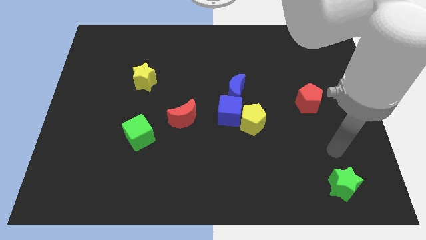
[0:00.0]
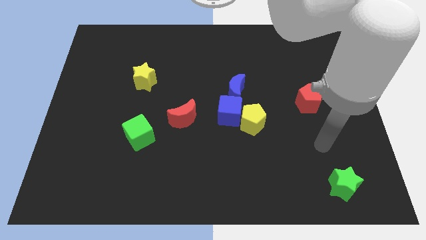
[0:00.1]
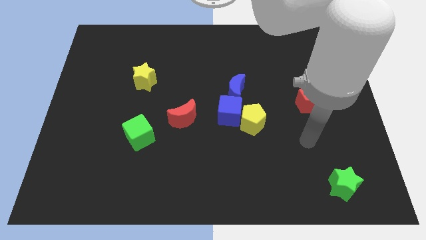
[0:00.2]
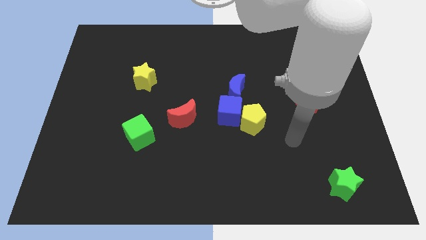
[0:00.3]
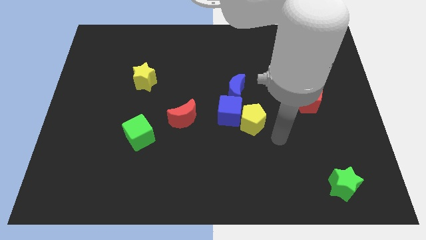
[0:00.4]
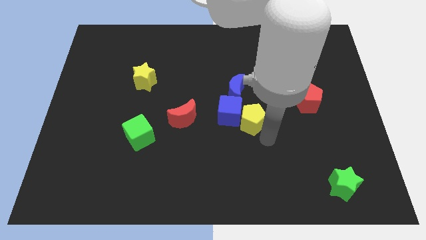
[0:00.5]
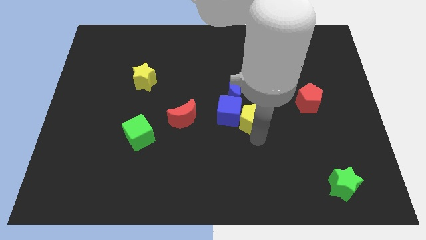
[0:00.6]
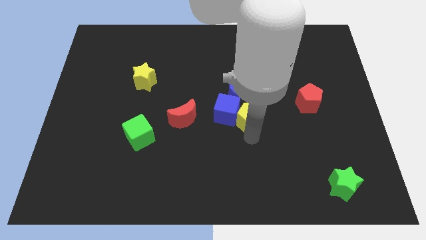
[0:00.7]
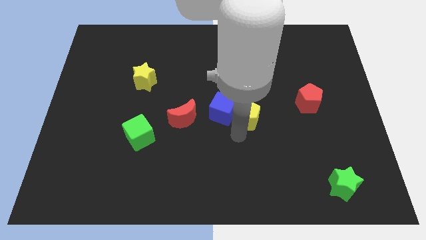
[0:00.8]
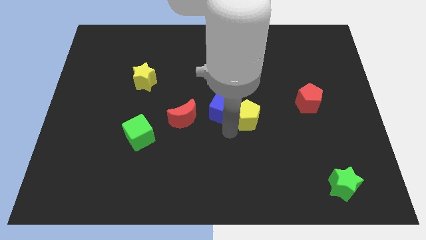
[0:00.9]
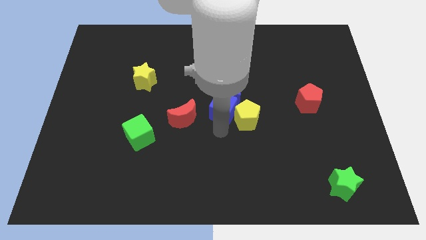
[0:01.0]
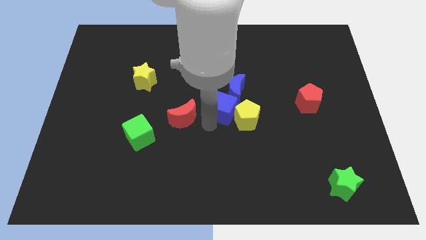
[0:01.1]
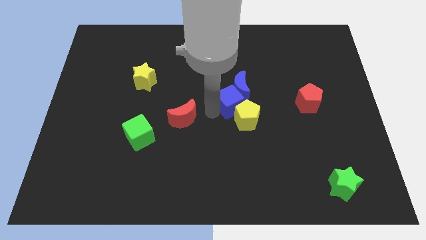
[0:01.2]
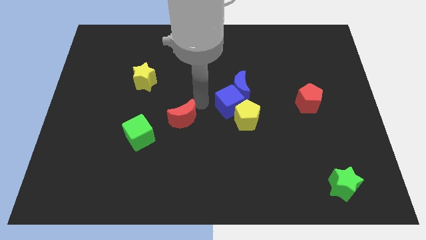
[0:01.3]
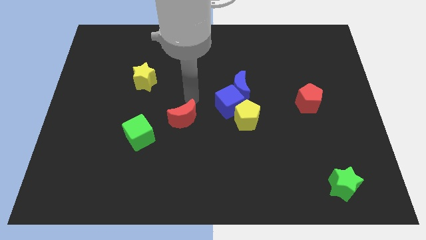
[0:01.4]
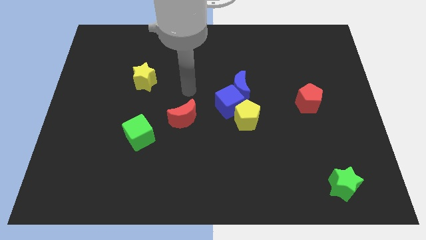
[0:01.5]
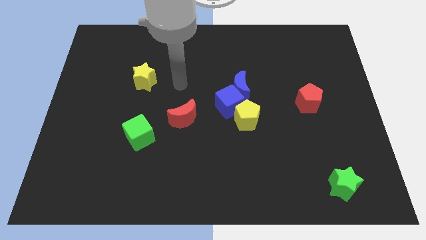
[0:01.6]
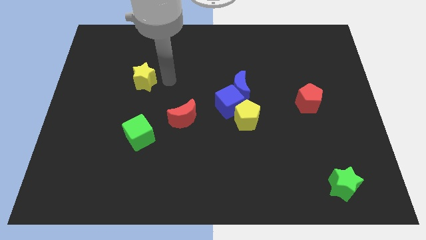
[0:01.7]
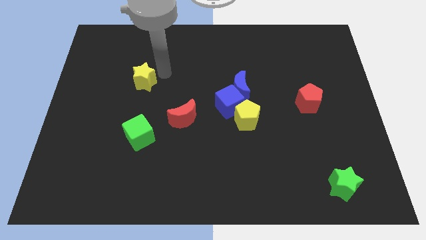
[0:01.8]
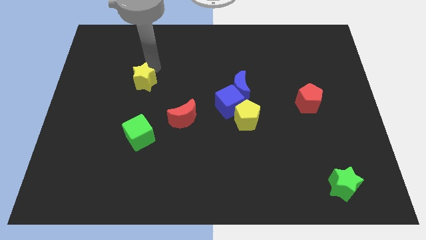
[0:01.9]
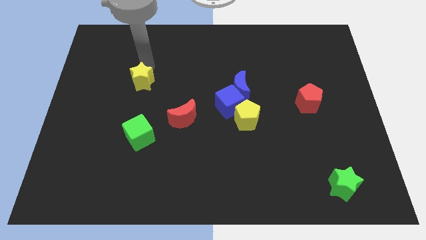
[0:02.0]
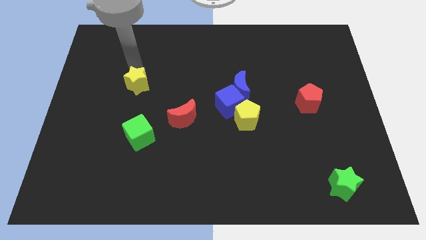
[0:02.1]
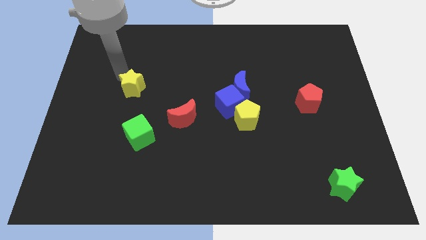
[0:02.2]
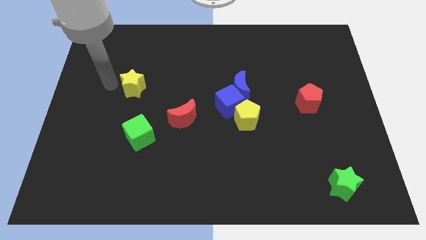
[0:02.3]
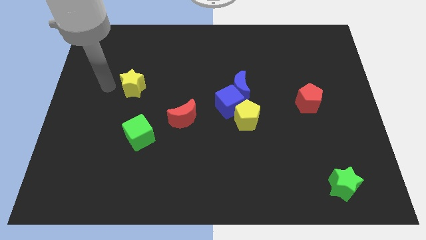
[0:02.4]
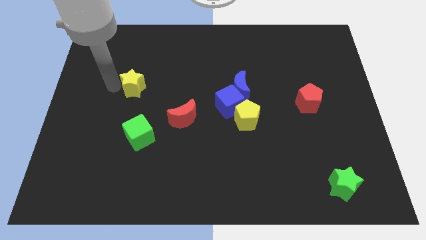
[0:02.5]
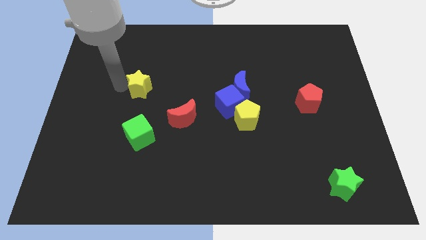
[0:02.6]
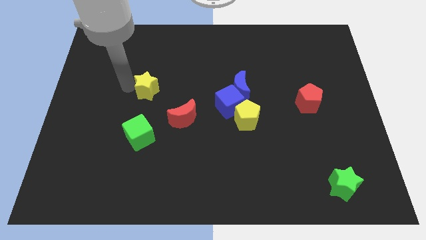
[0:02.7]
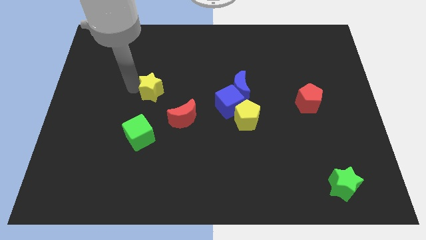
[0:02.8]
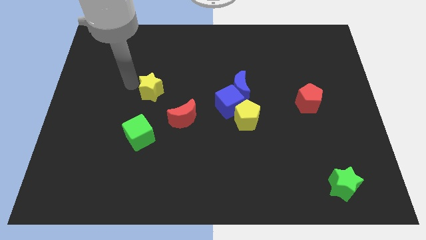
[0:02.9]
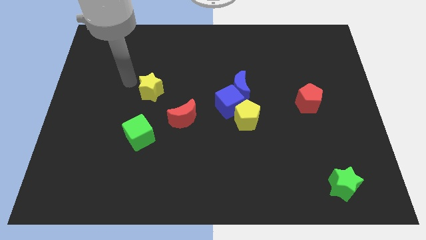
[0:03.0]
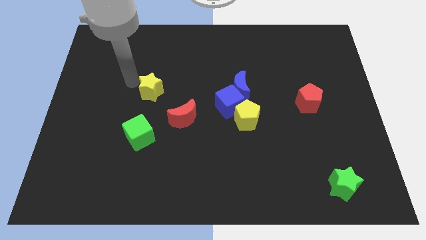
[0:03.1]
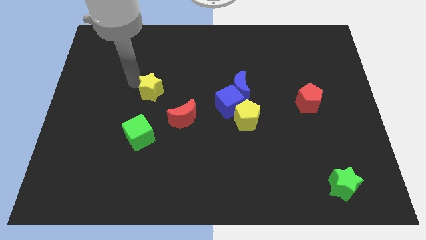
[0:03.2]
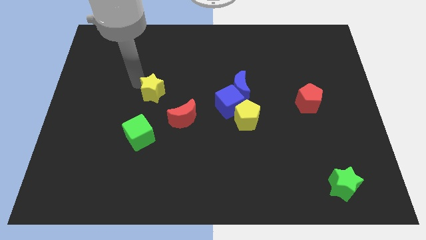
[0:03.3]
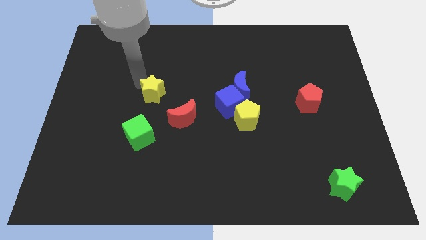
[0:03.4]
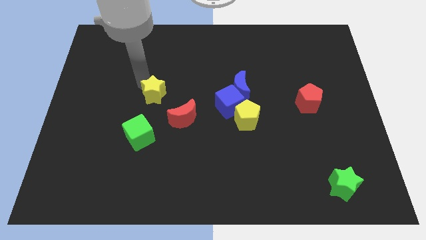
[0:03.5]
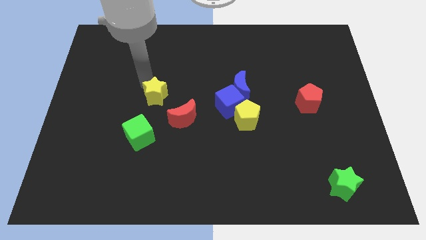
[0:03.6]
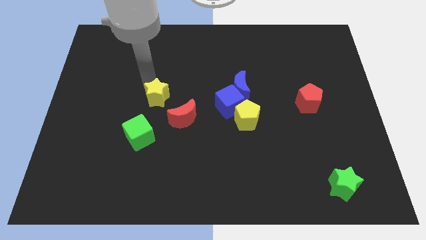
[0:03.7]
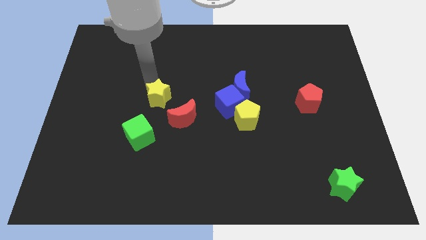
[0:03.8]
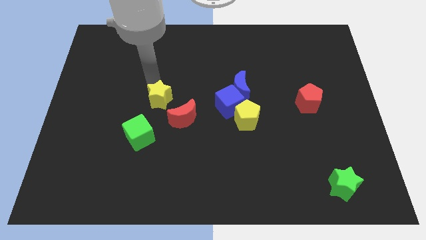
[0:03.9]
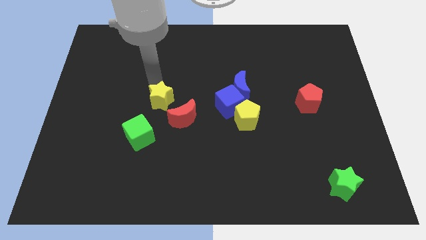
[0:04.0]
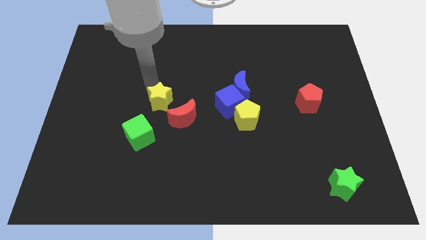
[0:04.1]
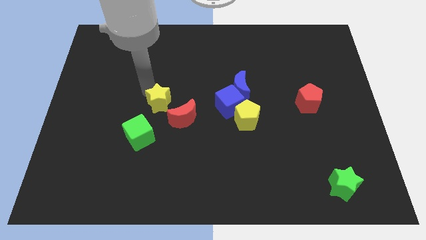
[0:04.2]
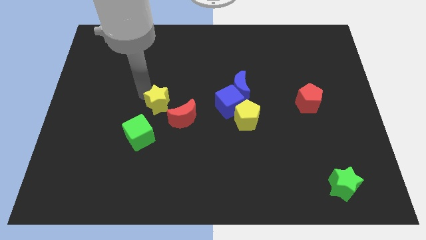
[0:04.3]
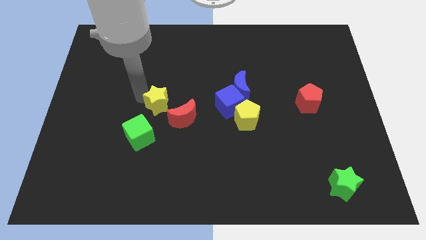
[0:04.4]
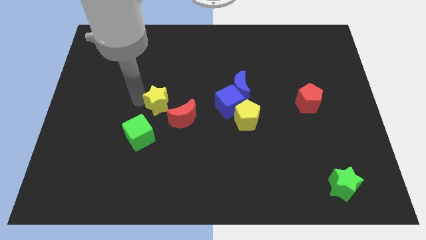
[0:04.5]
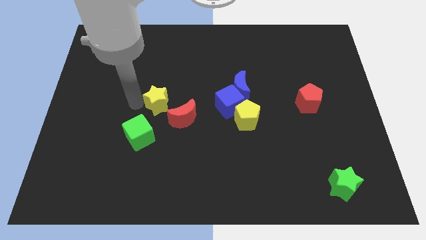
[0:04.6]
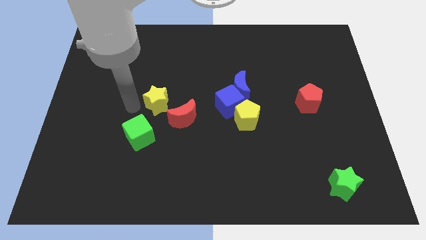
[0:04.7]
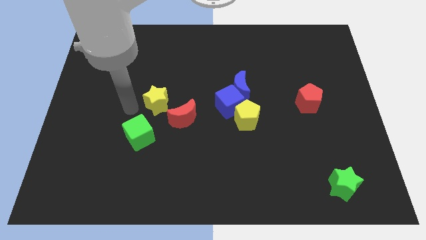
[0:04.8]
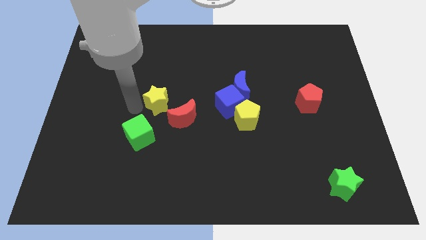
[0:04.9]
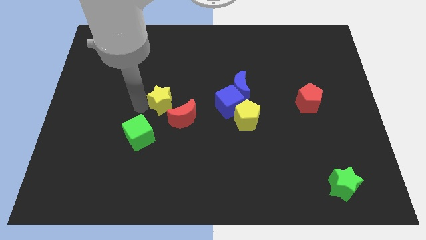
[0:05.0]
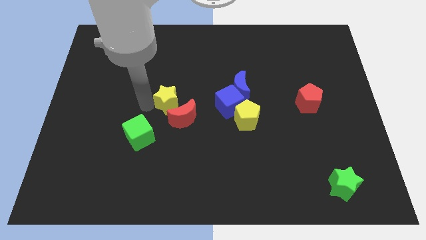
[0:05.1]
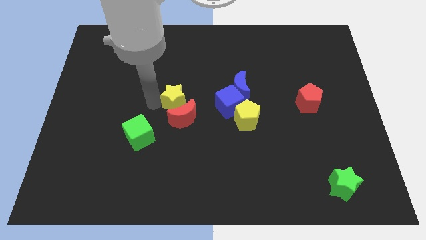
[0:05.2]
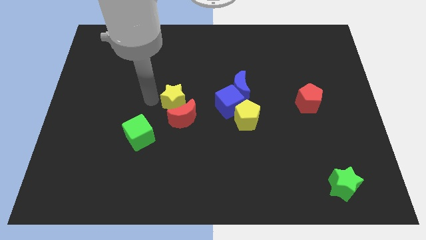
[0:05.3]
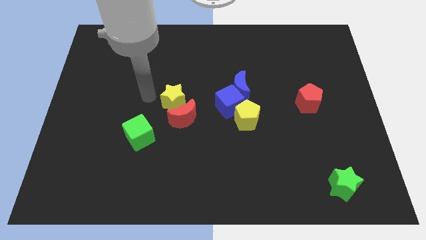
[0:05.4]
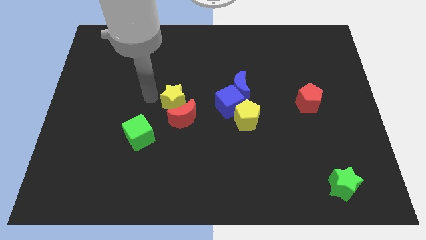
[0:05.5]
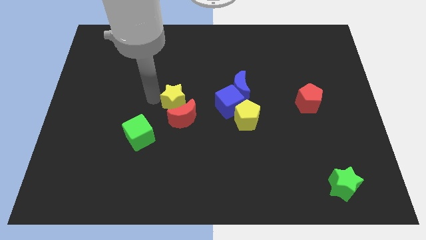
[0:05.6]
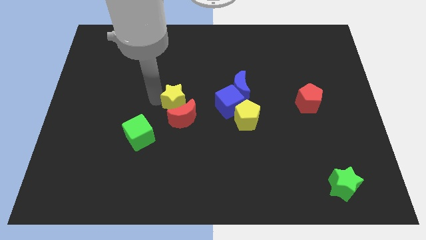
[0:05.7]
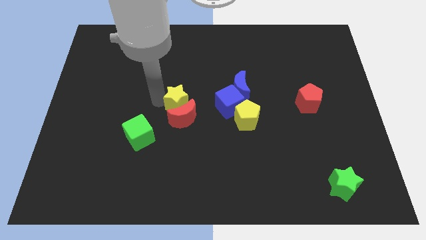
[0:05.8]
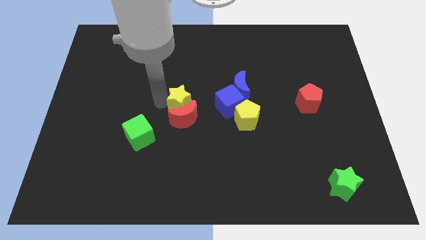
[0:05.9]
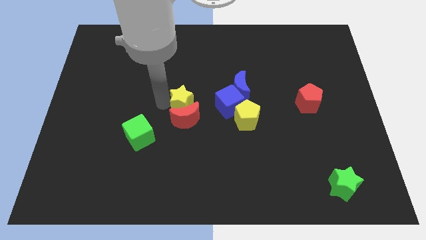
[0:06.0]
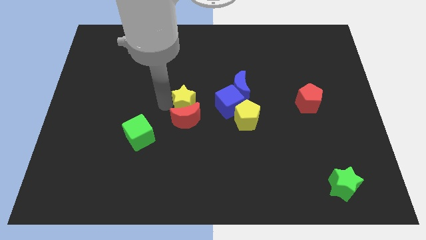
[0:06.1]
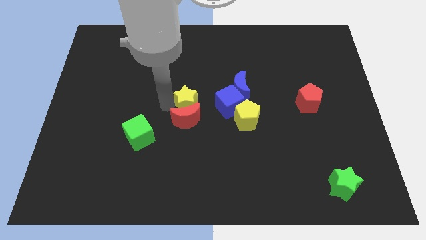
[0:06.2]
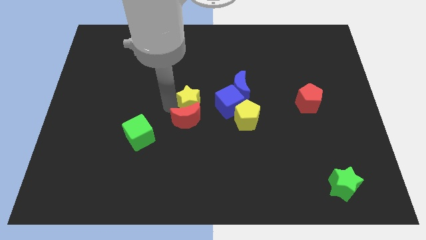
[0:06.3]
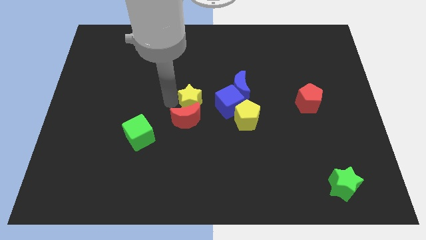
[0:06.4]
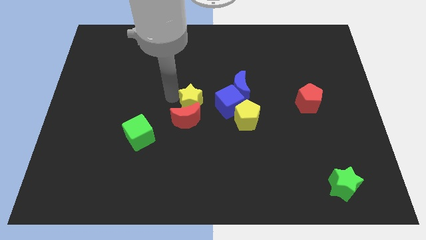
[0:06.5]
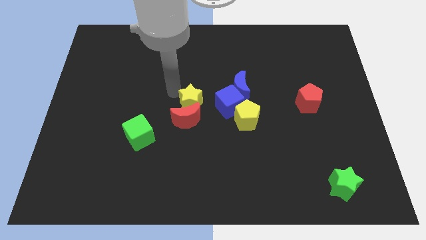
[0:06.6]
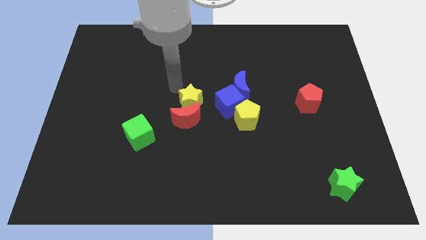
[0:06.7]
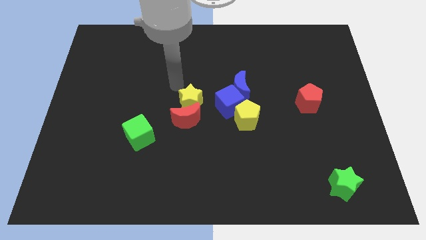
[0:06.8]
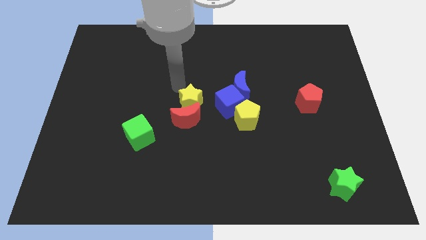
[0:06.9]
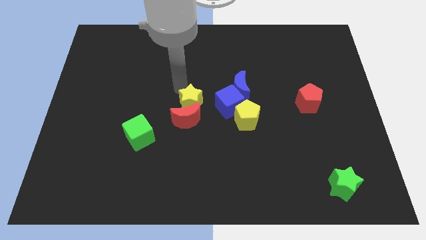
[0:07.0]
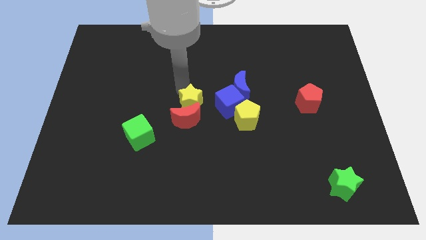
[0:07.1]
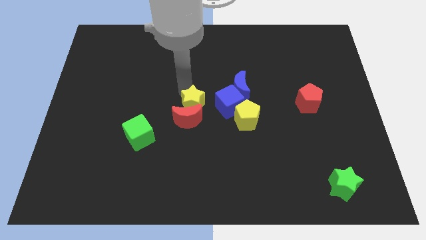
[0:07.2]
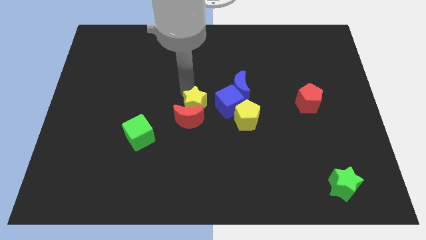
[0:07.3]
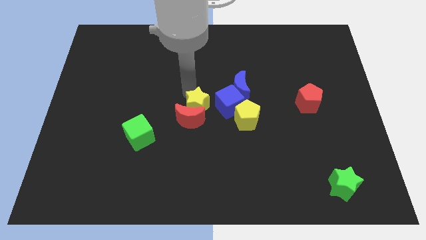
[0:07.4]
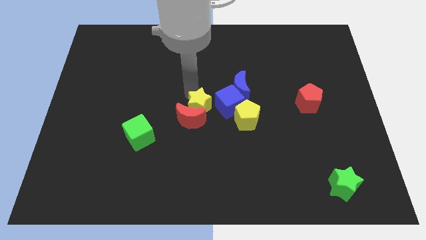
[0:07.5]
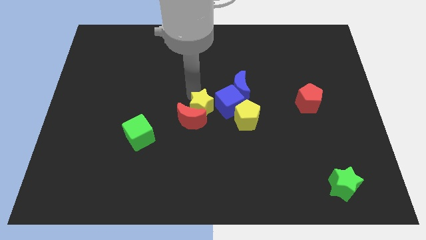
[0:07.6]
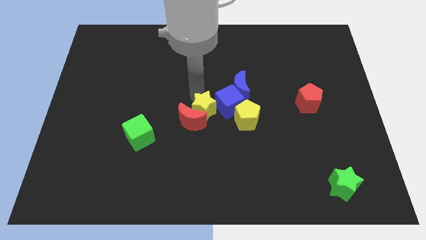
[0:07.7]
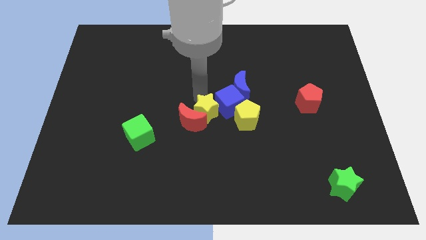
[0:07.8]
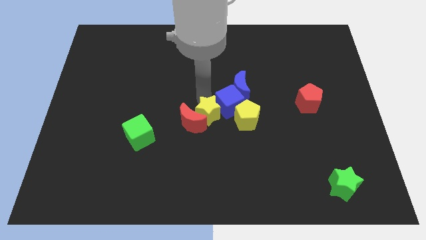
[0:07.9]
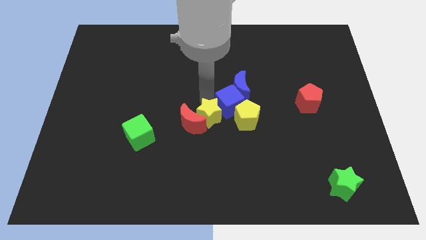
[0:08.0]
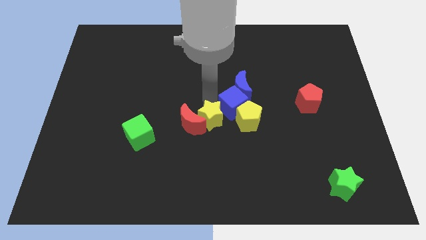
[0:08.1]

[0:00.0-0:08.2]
put the yellow star to the bottom right side of the red moon
